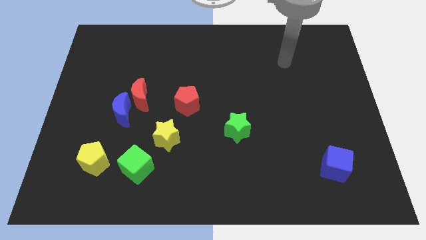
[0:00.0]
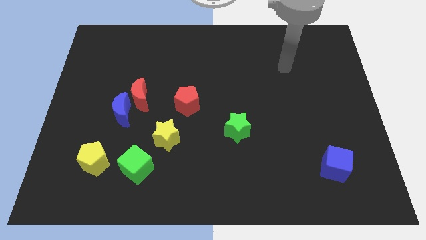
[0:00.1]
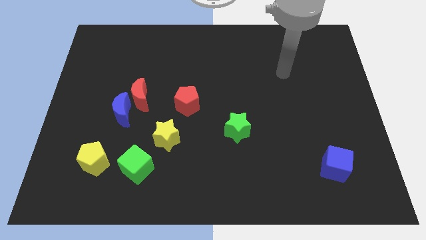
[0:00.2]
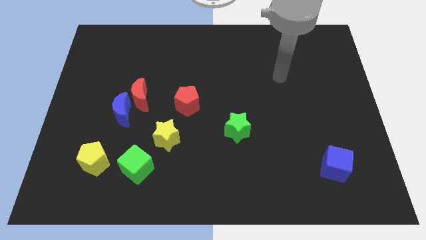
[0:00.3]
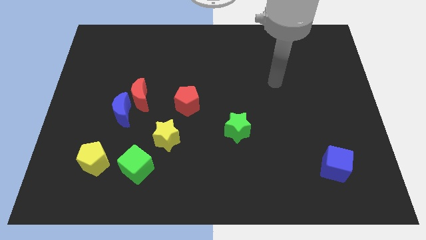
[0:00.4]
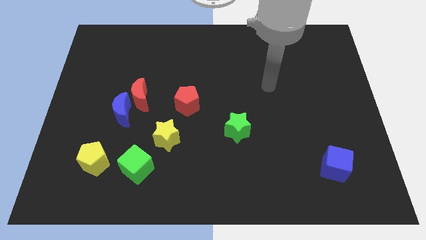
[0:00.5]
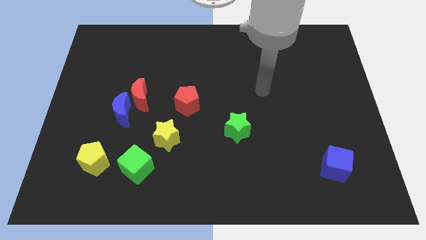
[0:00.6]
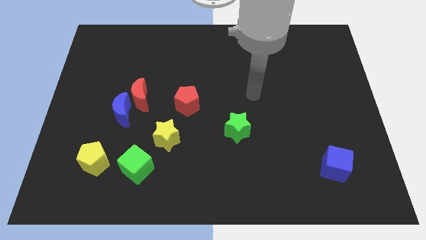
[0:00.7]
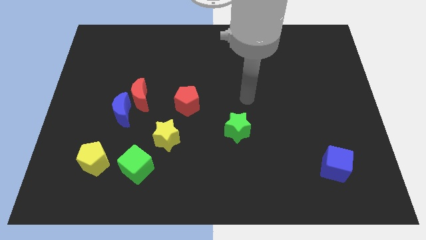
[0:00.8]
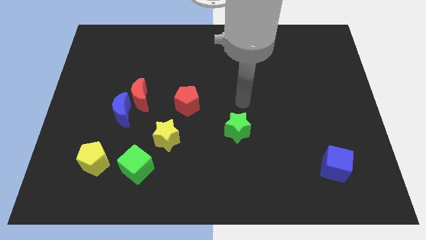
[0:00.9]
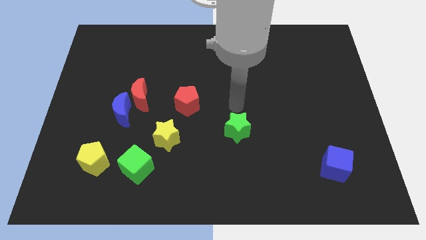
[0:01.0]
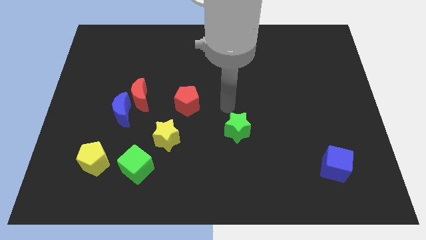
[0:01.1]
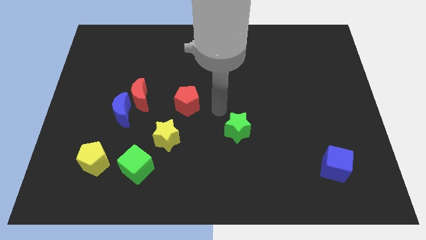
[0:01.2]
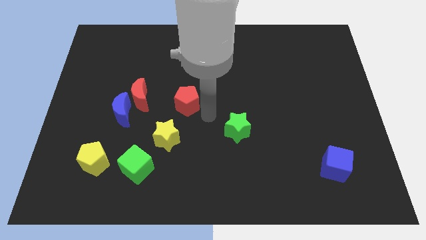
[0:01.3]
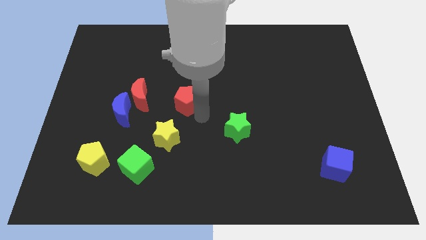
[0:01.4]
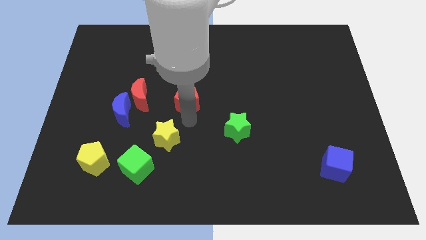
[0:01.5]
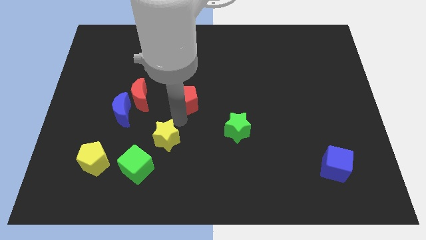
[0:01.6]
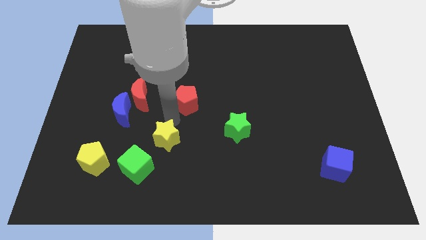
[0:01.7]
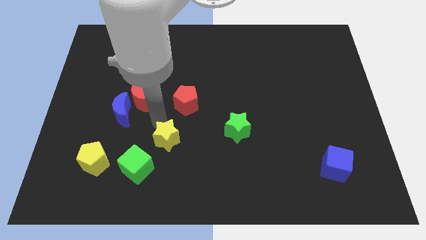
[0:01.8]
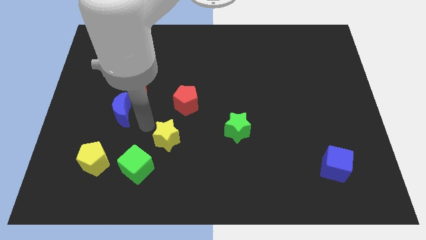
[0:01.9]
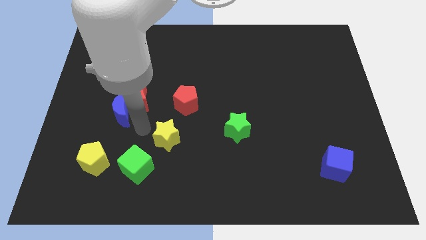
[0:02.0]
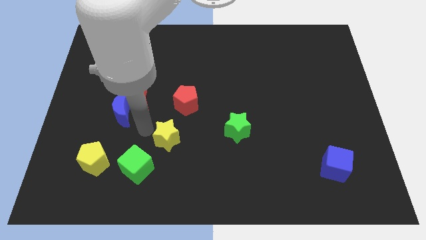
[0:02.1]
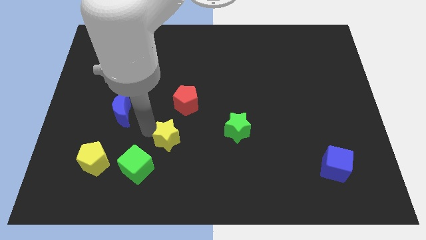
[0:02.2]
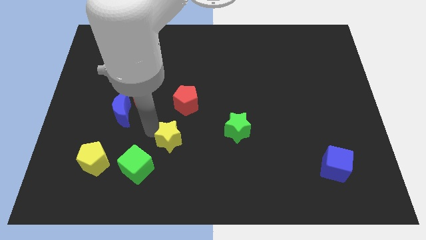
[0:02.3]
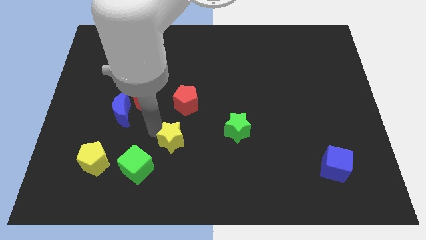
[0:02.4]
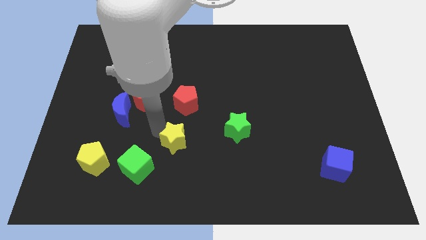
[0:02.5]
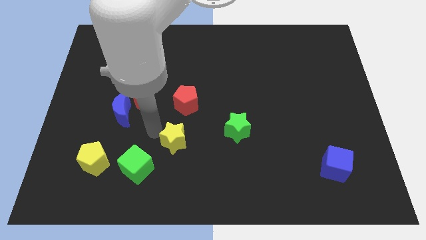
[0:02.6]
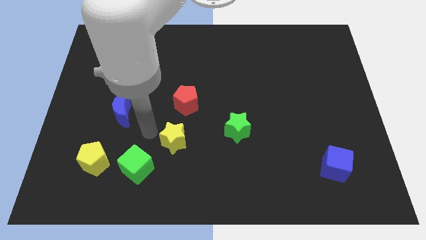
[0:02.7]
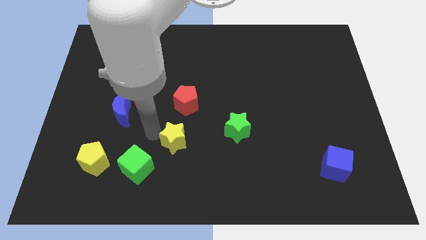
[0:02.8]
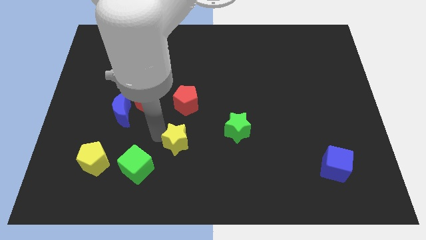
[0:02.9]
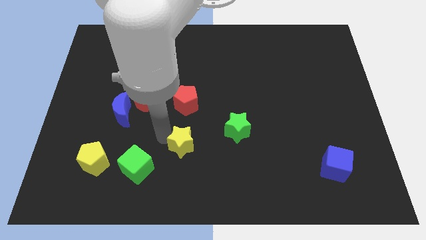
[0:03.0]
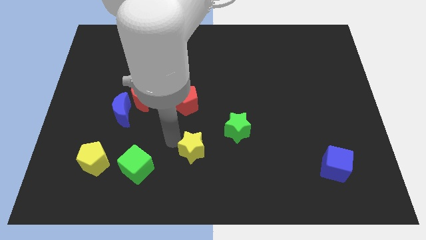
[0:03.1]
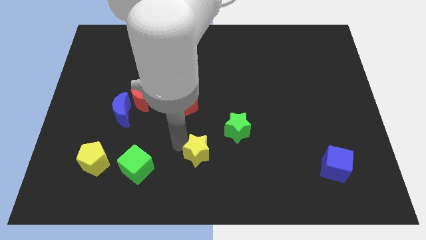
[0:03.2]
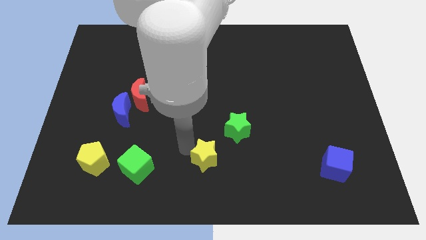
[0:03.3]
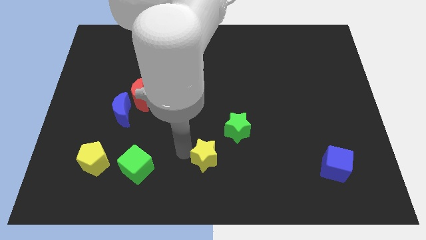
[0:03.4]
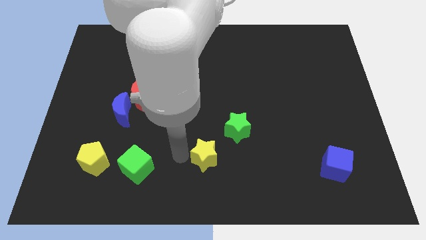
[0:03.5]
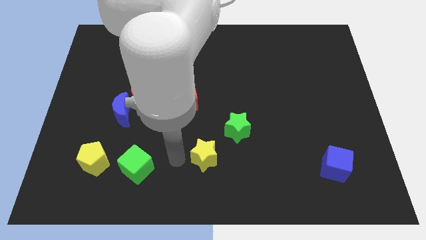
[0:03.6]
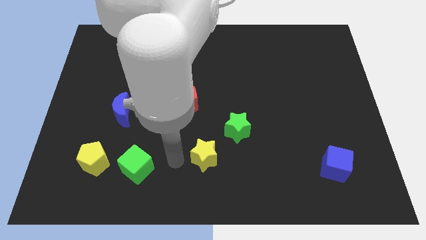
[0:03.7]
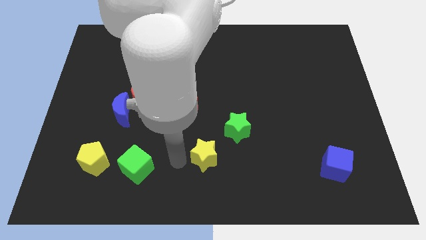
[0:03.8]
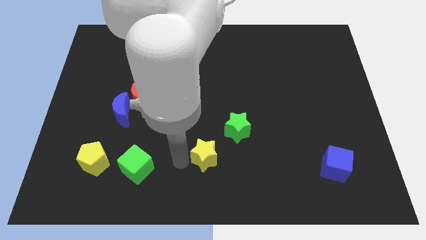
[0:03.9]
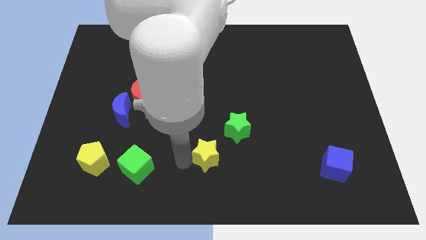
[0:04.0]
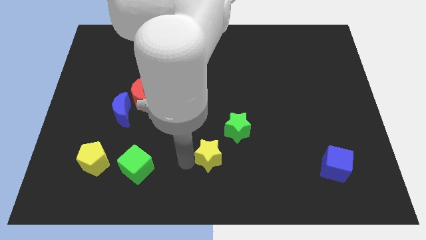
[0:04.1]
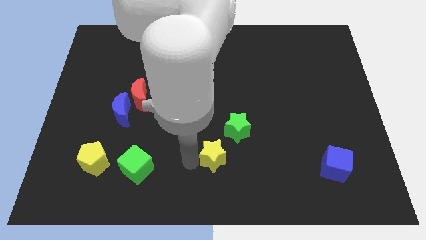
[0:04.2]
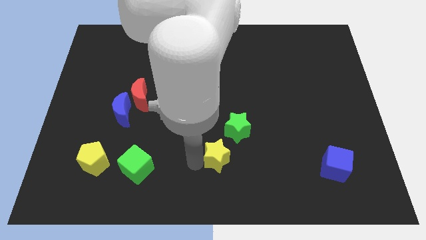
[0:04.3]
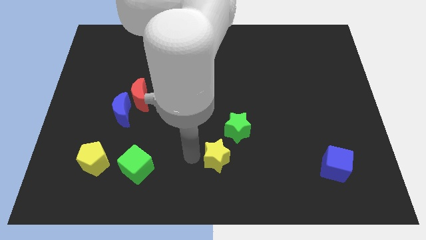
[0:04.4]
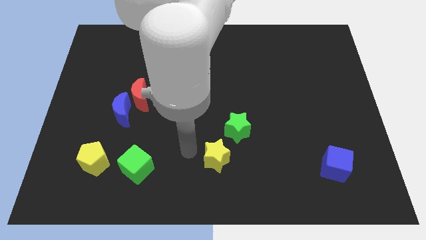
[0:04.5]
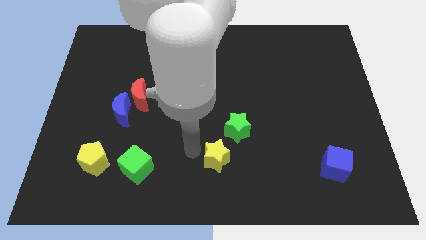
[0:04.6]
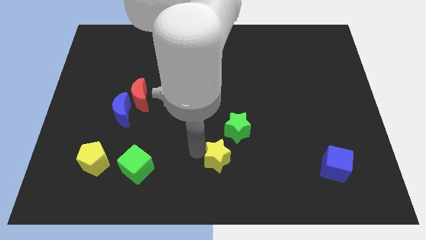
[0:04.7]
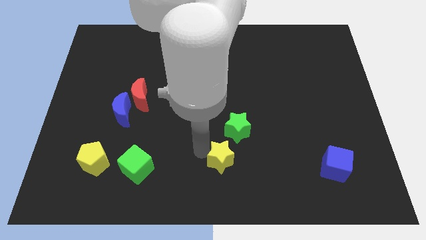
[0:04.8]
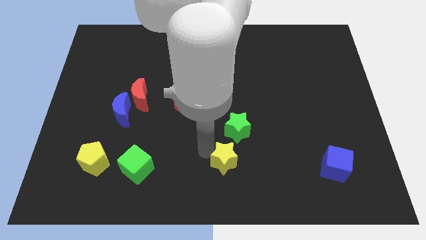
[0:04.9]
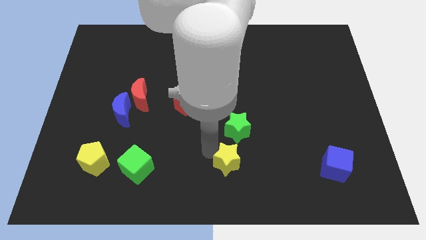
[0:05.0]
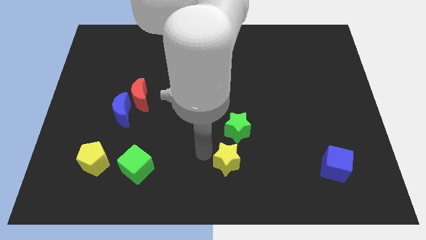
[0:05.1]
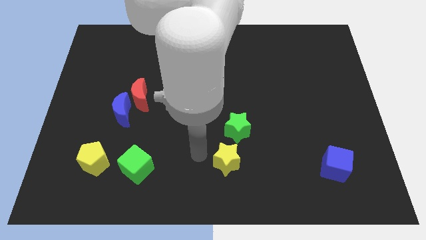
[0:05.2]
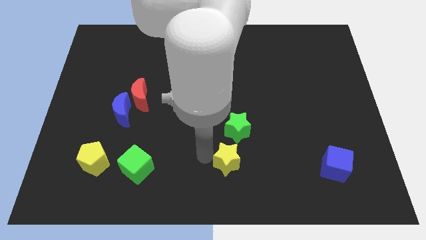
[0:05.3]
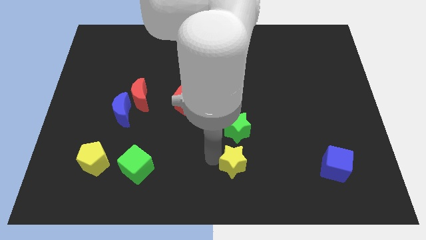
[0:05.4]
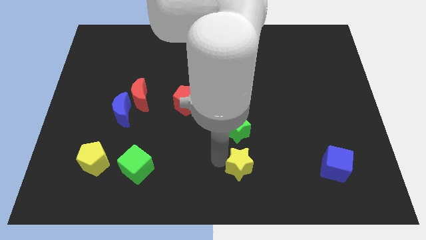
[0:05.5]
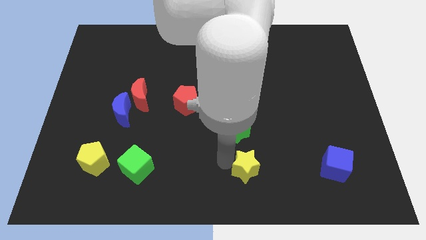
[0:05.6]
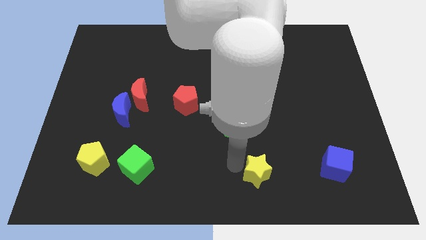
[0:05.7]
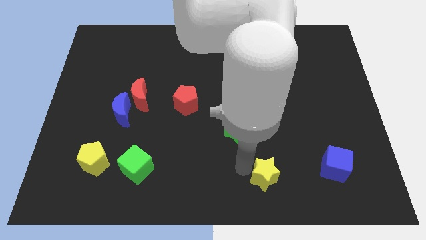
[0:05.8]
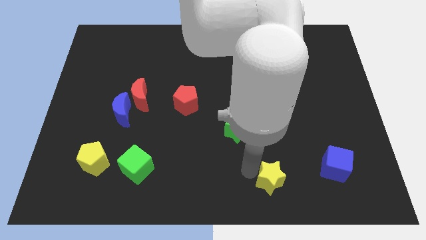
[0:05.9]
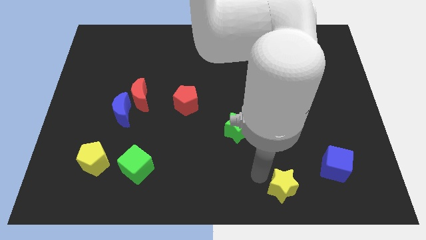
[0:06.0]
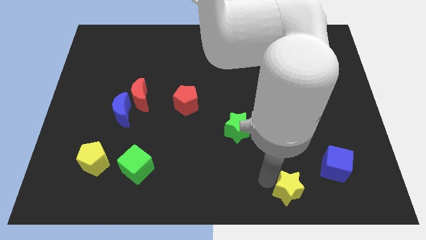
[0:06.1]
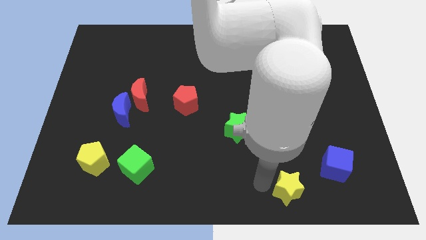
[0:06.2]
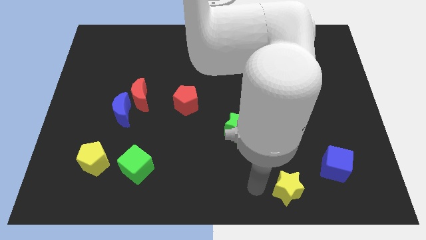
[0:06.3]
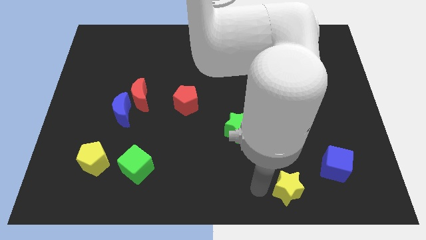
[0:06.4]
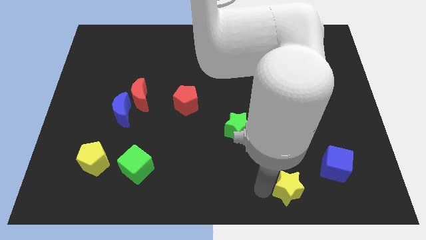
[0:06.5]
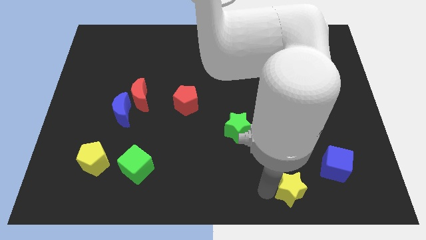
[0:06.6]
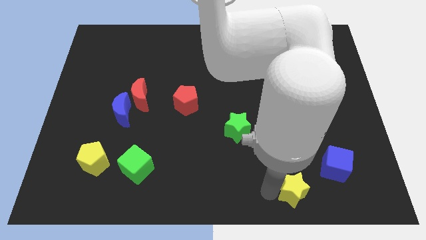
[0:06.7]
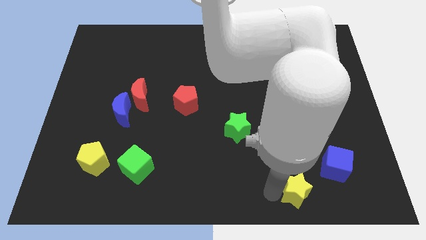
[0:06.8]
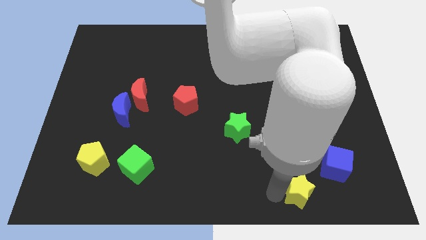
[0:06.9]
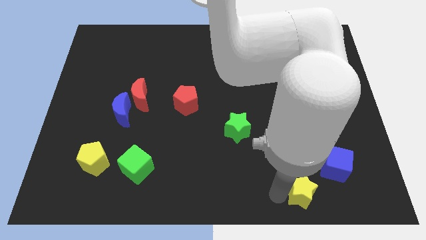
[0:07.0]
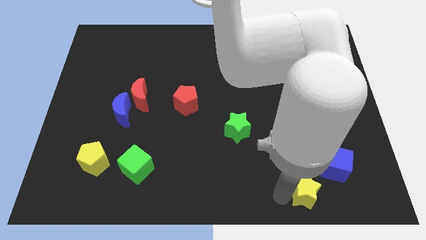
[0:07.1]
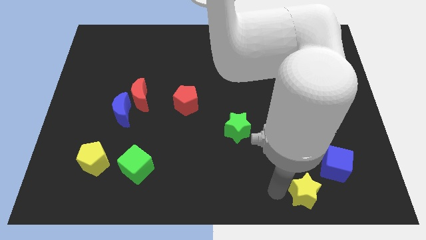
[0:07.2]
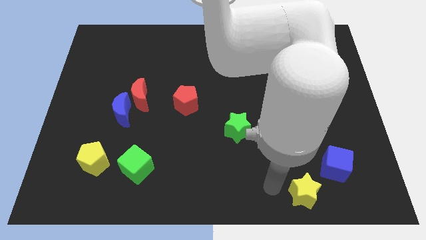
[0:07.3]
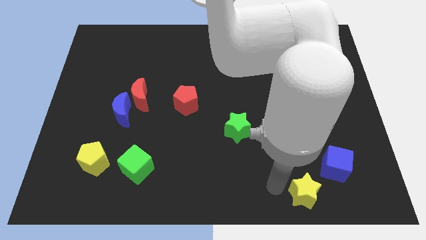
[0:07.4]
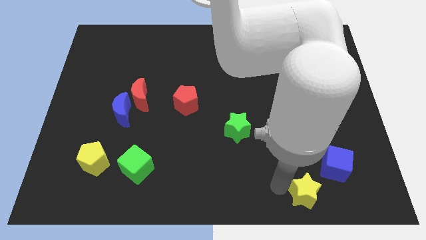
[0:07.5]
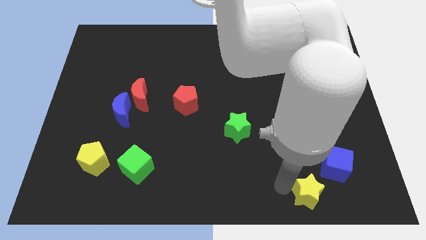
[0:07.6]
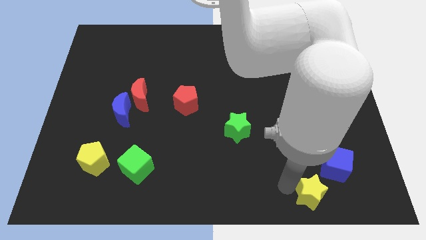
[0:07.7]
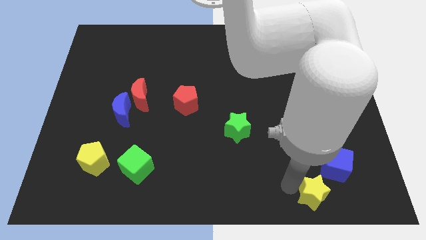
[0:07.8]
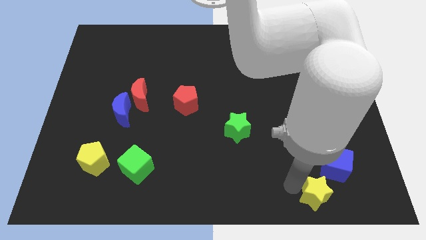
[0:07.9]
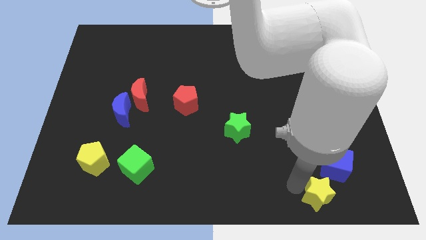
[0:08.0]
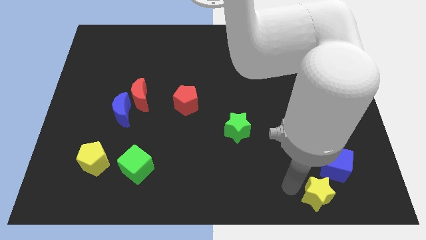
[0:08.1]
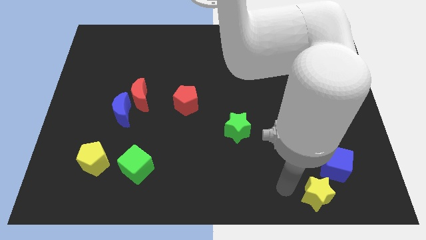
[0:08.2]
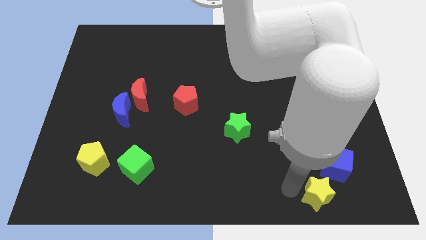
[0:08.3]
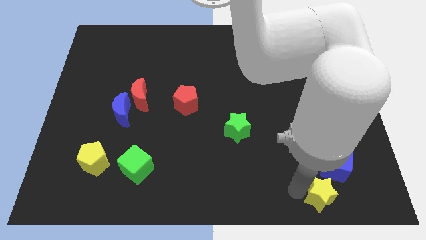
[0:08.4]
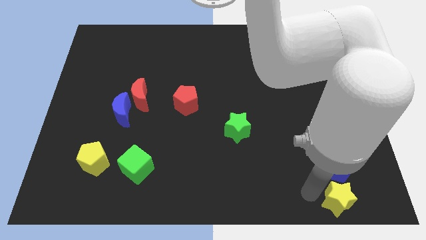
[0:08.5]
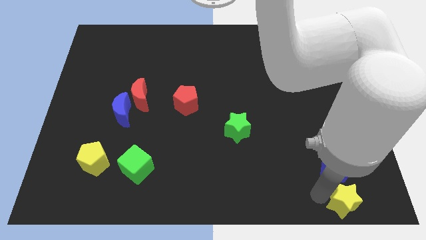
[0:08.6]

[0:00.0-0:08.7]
slide the yellow star to the bottom right corner
